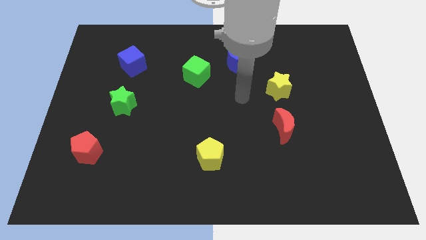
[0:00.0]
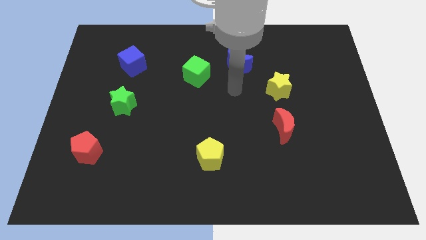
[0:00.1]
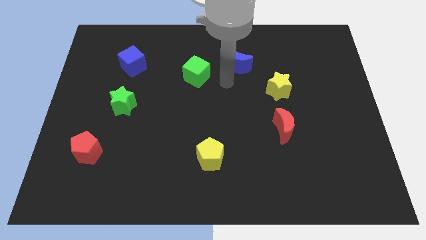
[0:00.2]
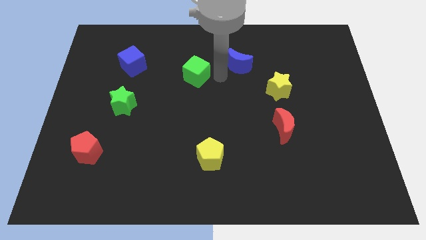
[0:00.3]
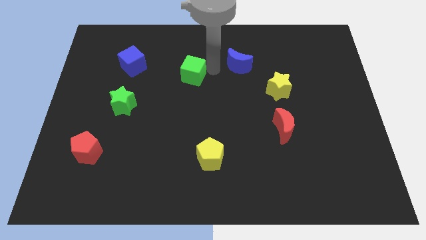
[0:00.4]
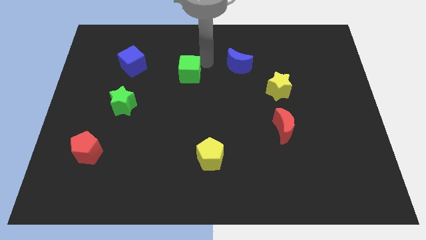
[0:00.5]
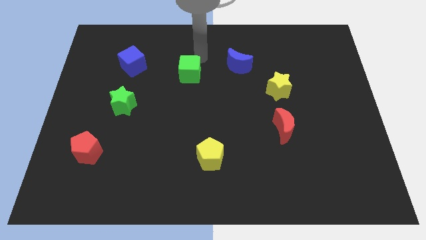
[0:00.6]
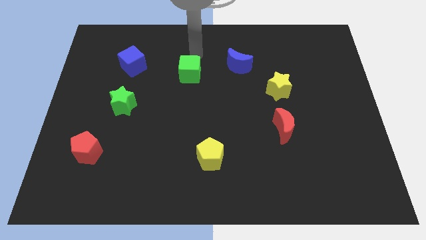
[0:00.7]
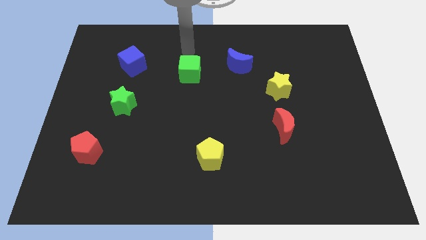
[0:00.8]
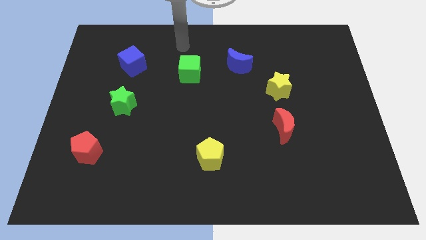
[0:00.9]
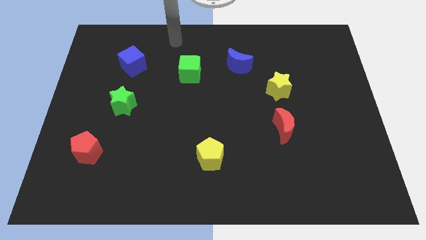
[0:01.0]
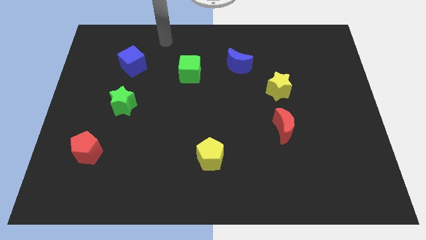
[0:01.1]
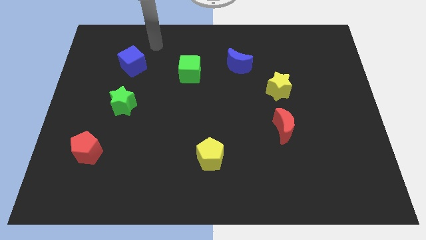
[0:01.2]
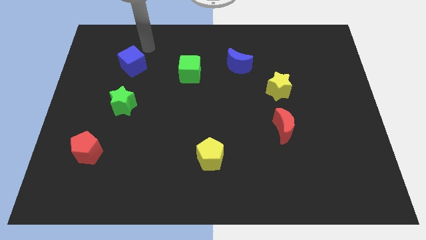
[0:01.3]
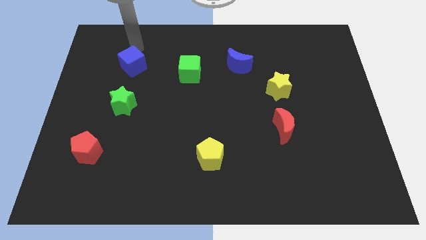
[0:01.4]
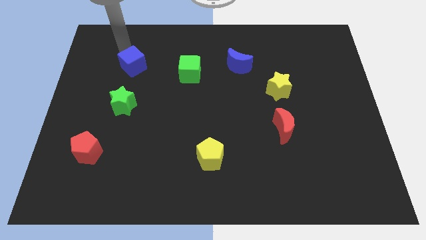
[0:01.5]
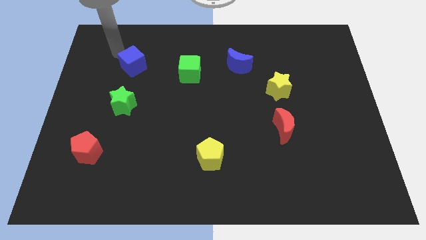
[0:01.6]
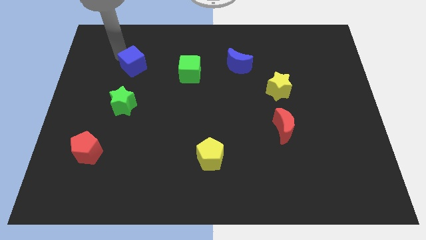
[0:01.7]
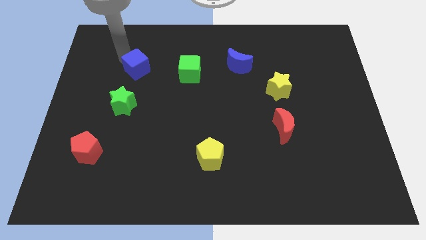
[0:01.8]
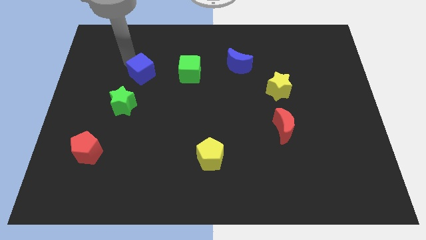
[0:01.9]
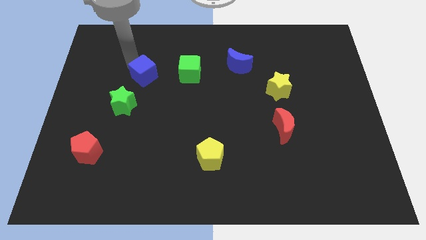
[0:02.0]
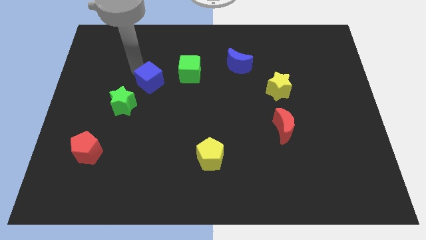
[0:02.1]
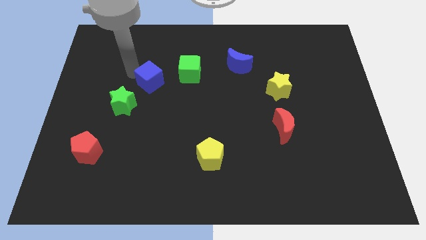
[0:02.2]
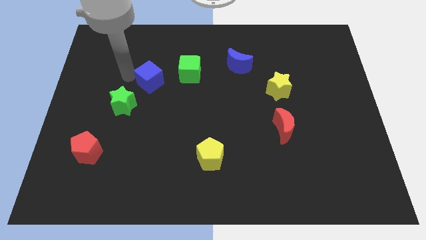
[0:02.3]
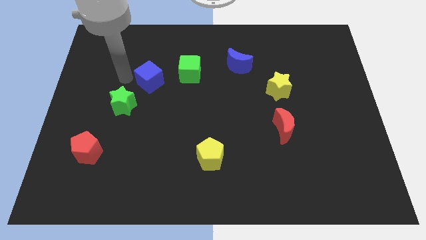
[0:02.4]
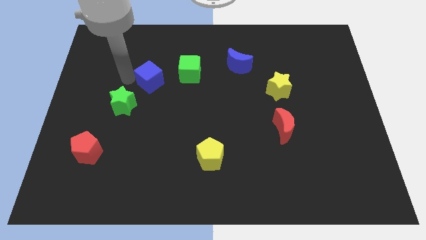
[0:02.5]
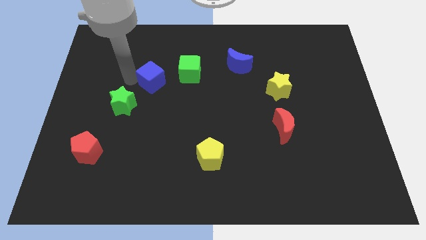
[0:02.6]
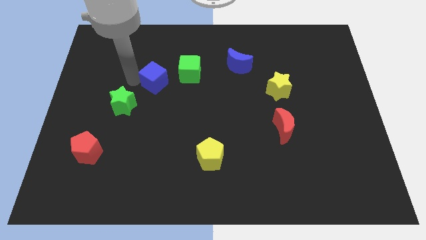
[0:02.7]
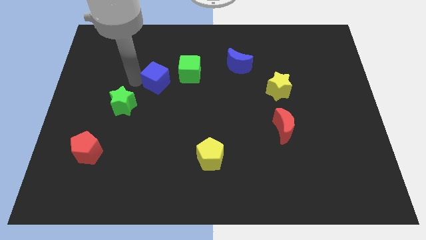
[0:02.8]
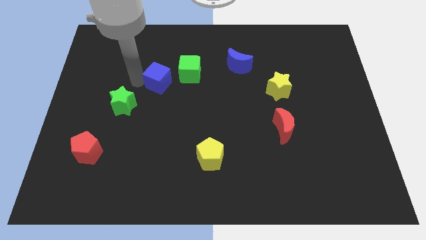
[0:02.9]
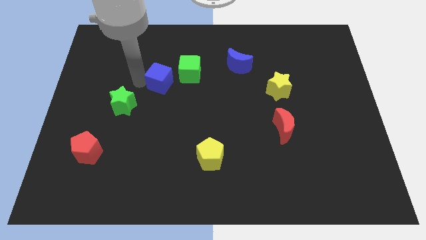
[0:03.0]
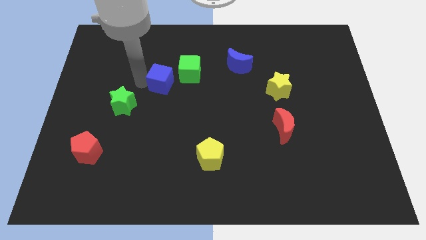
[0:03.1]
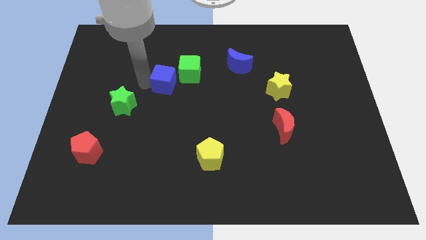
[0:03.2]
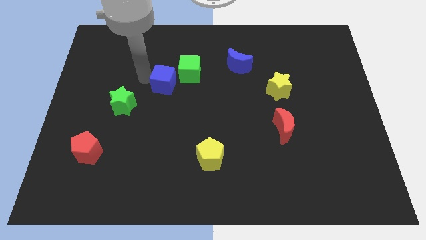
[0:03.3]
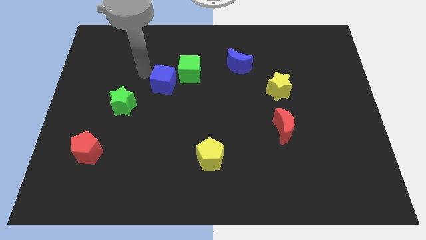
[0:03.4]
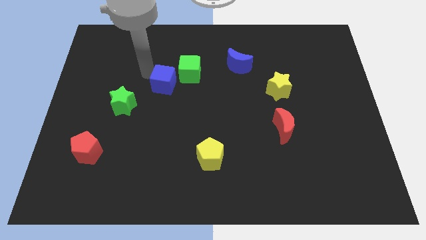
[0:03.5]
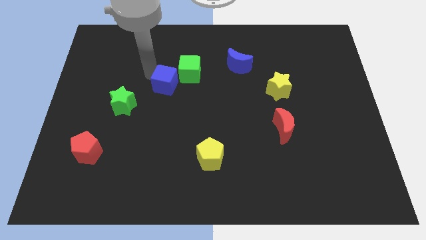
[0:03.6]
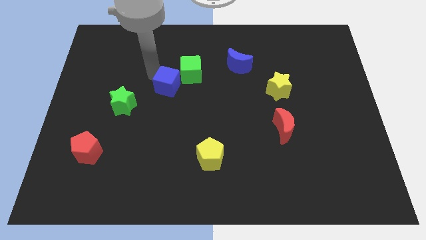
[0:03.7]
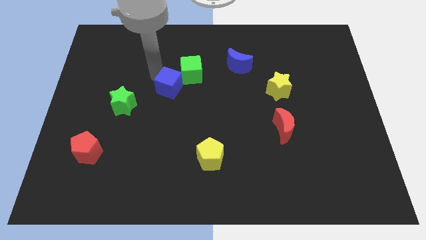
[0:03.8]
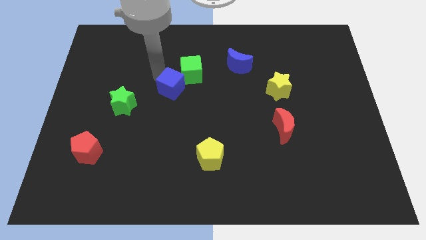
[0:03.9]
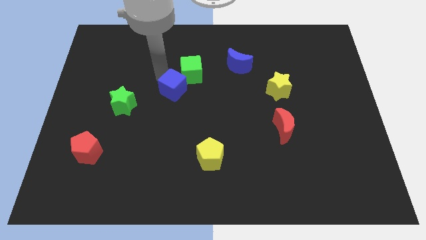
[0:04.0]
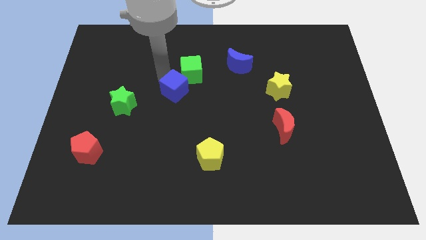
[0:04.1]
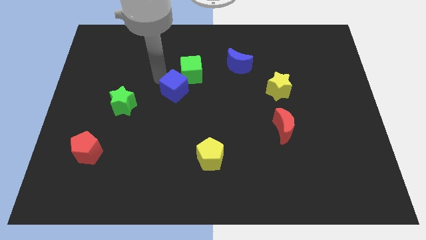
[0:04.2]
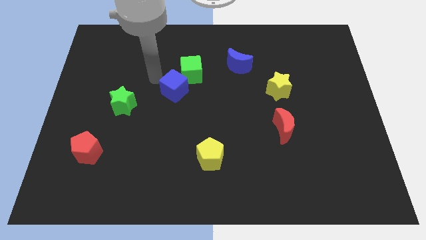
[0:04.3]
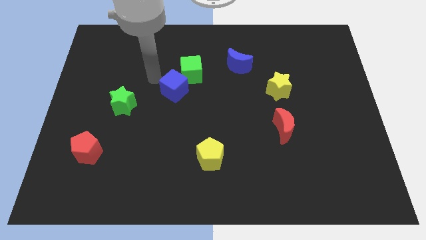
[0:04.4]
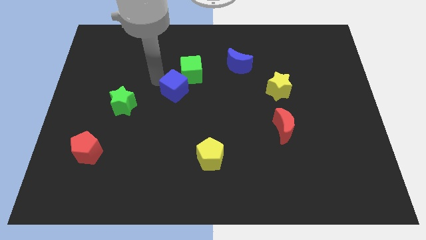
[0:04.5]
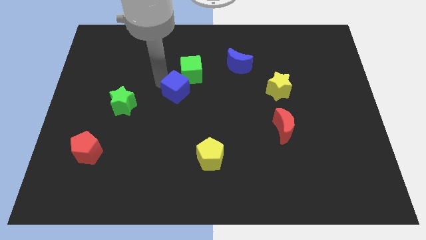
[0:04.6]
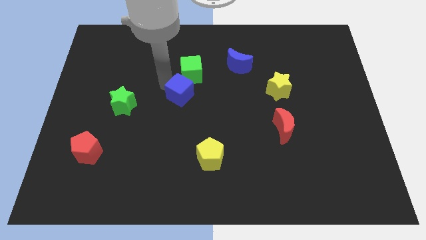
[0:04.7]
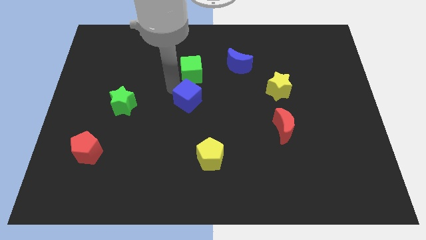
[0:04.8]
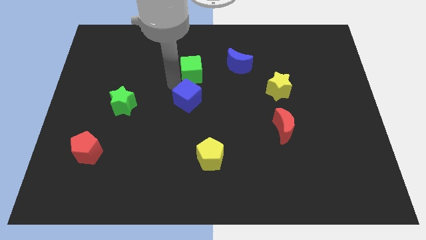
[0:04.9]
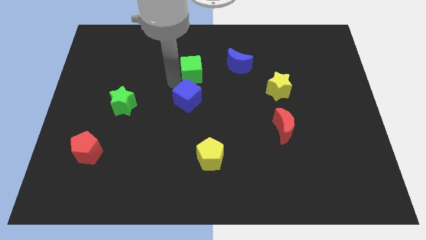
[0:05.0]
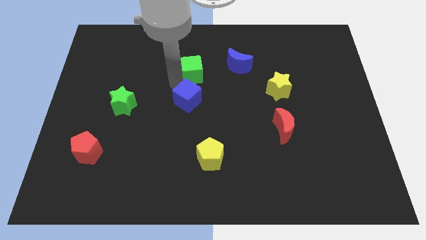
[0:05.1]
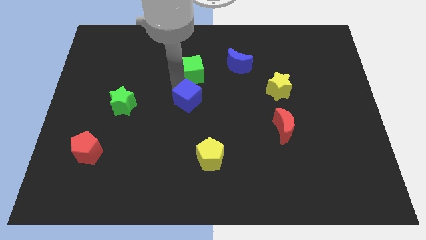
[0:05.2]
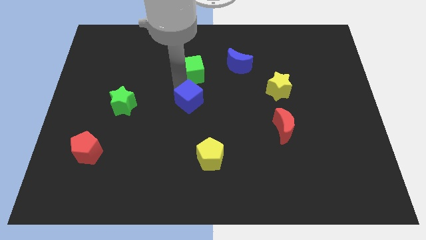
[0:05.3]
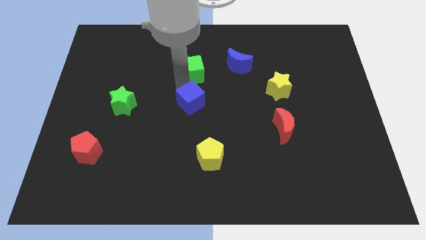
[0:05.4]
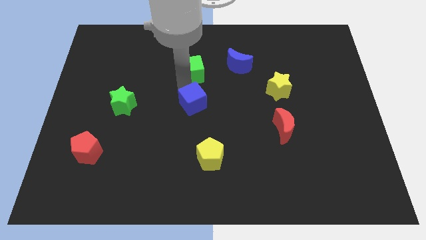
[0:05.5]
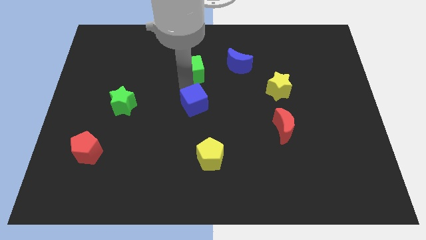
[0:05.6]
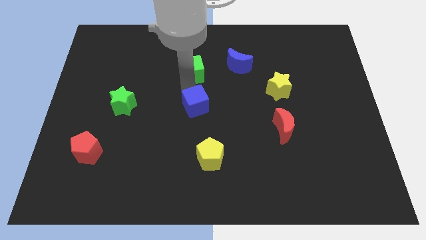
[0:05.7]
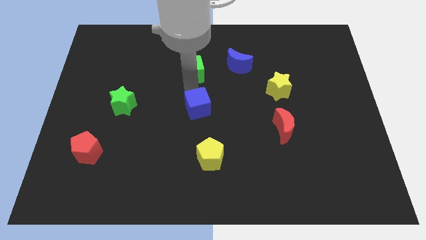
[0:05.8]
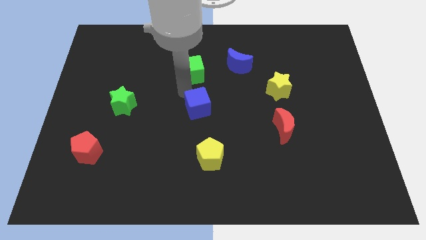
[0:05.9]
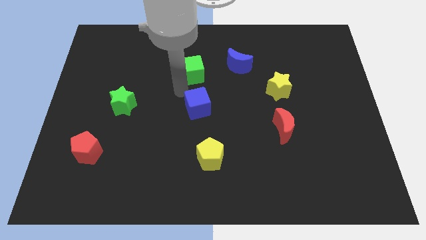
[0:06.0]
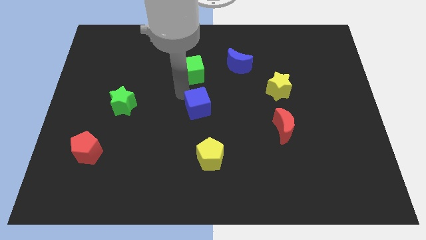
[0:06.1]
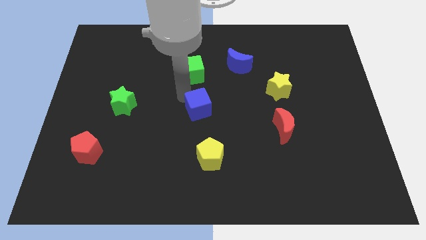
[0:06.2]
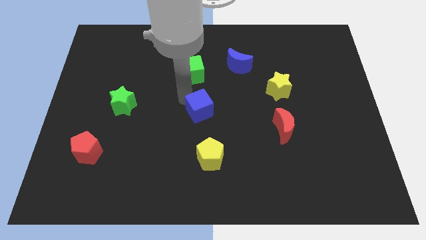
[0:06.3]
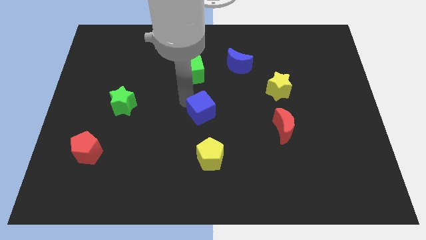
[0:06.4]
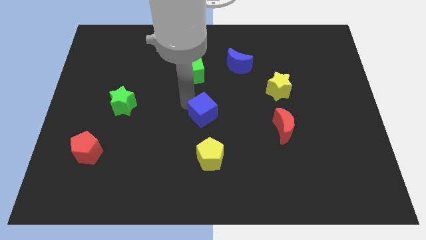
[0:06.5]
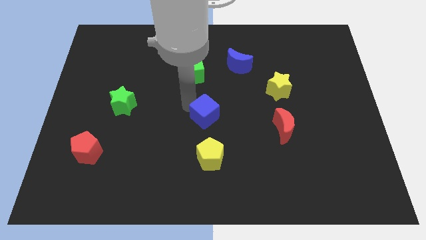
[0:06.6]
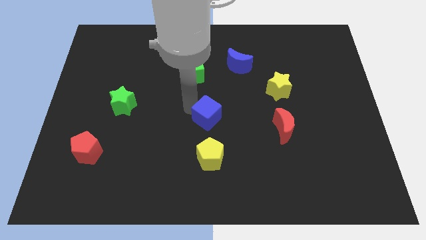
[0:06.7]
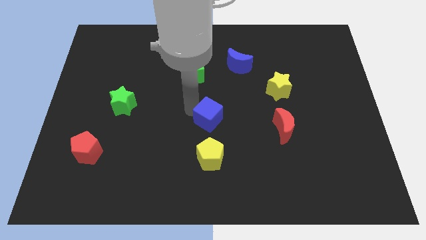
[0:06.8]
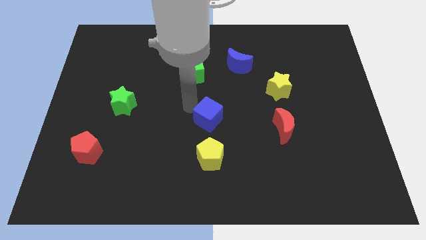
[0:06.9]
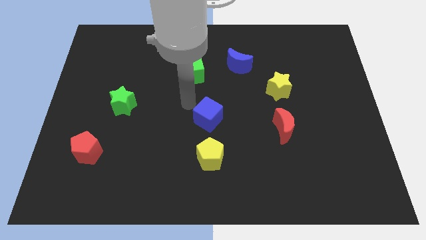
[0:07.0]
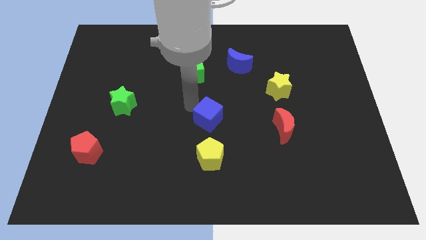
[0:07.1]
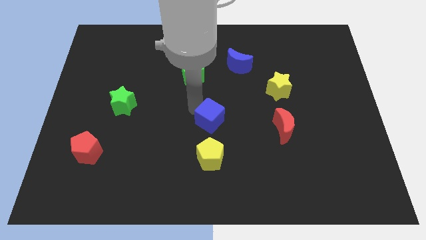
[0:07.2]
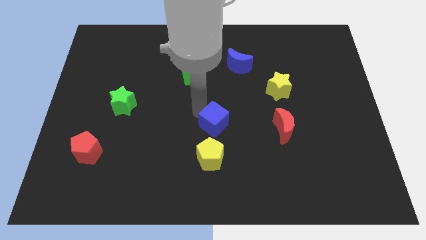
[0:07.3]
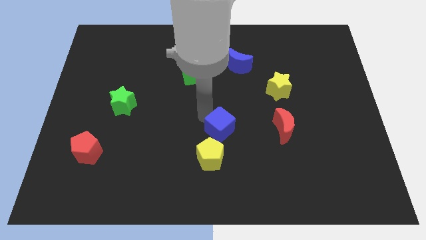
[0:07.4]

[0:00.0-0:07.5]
slide the blue cube to the top right of the yellow pentagon
